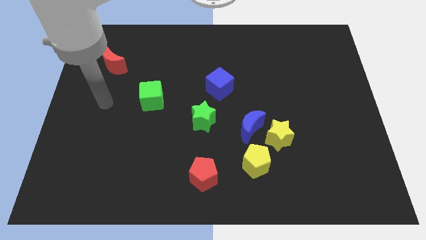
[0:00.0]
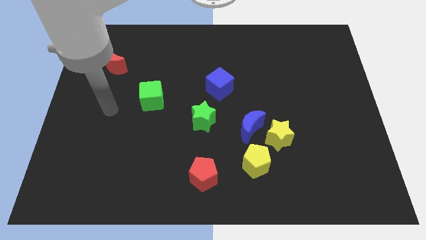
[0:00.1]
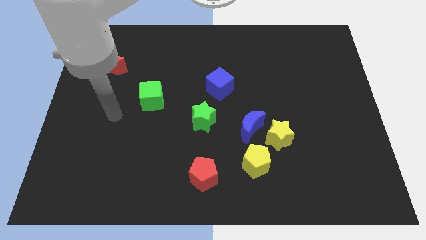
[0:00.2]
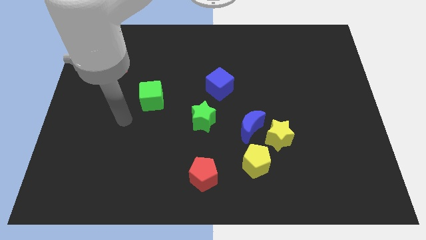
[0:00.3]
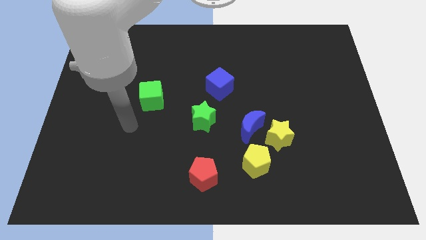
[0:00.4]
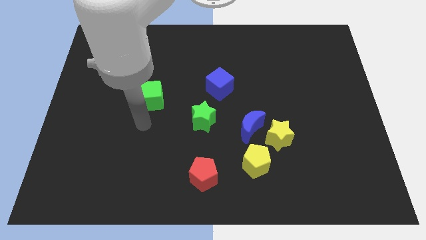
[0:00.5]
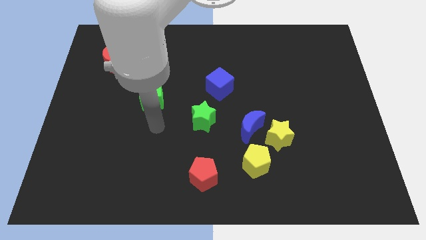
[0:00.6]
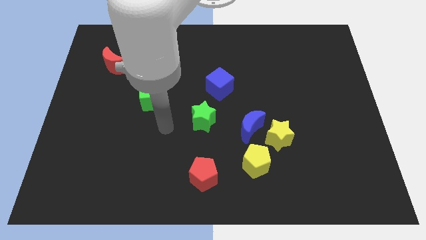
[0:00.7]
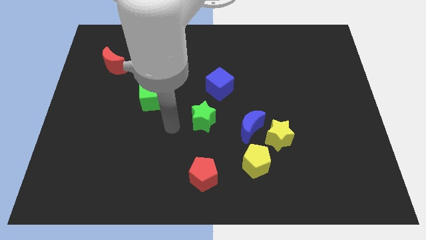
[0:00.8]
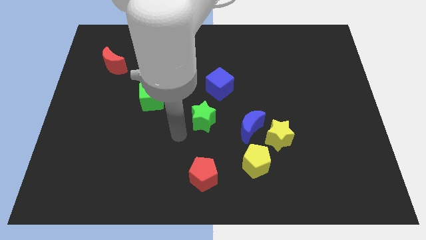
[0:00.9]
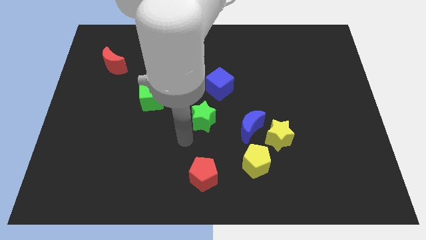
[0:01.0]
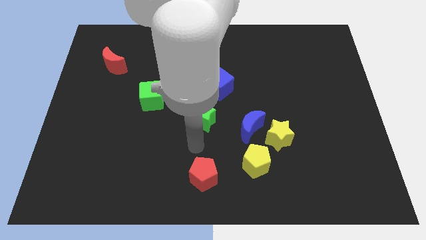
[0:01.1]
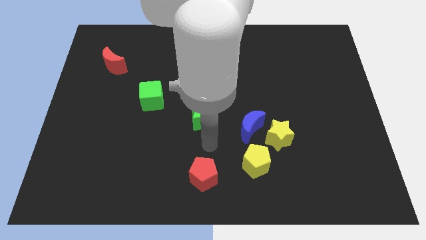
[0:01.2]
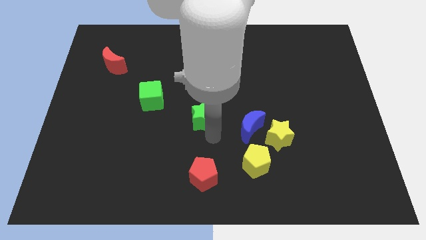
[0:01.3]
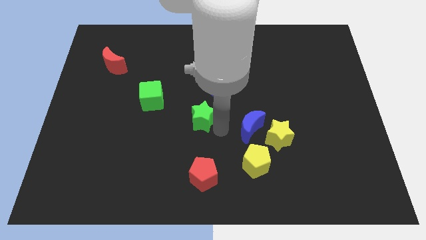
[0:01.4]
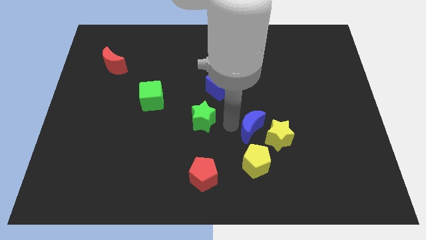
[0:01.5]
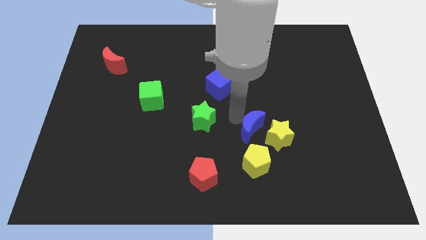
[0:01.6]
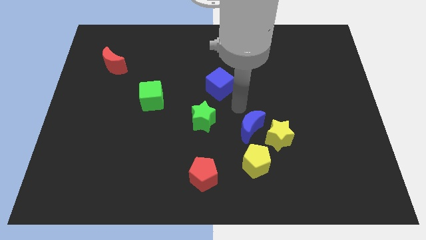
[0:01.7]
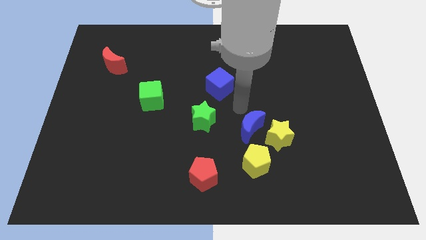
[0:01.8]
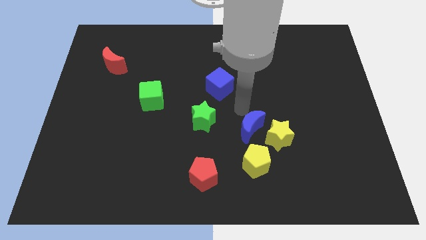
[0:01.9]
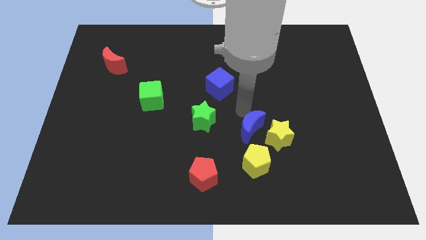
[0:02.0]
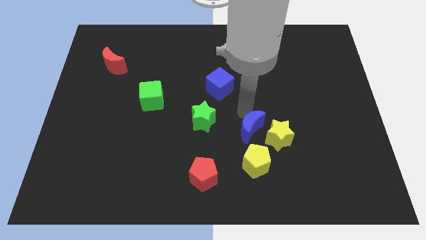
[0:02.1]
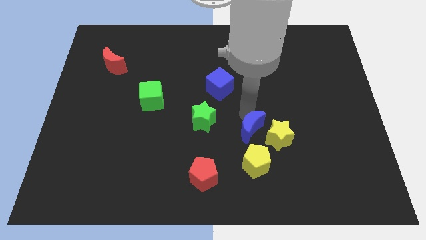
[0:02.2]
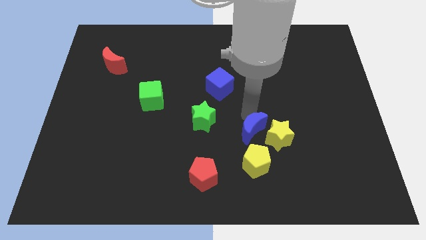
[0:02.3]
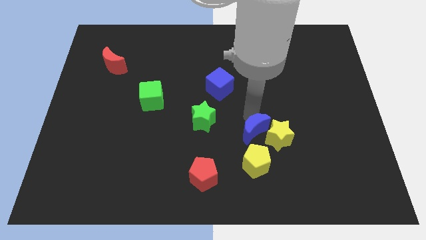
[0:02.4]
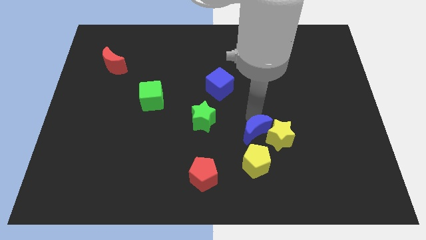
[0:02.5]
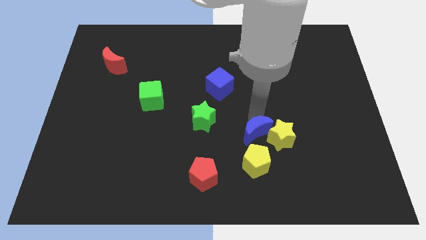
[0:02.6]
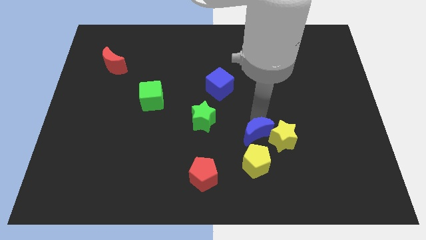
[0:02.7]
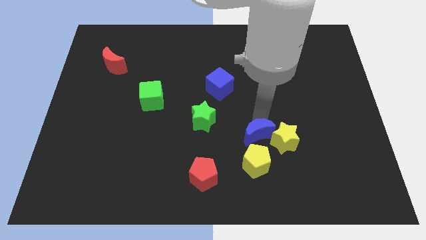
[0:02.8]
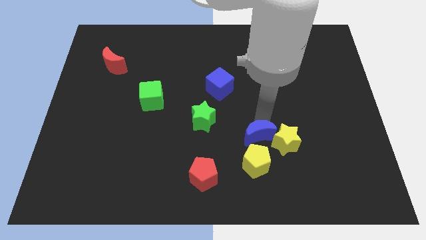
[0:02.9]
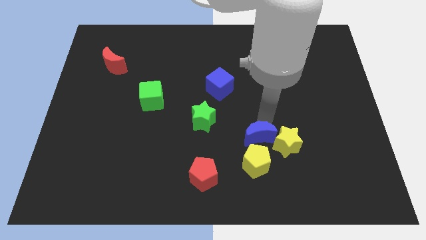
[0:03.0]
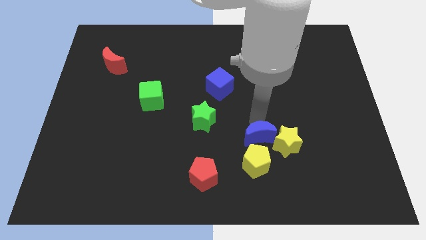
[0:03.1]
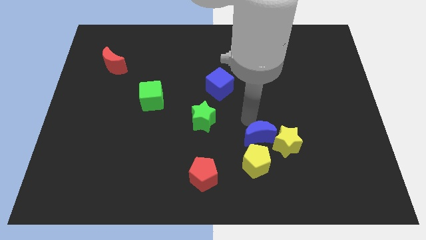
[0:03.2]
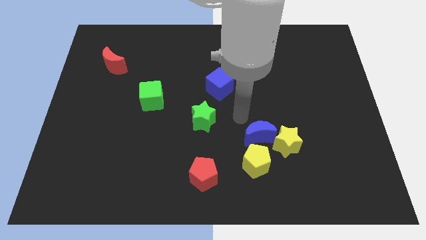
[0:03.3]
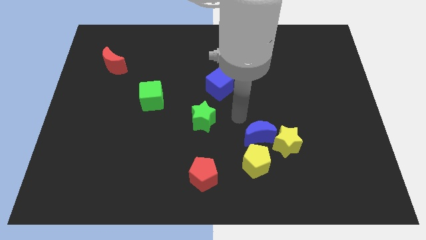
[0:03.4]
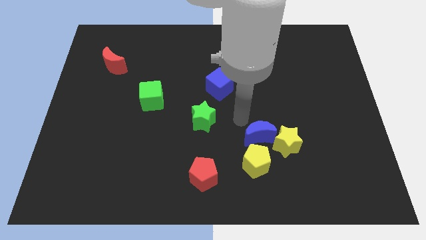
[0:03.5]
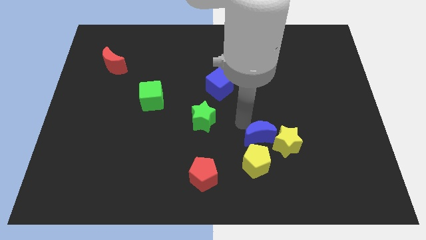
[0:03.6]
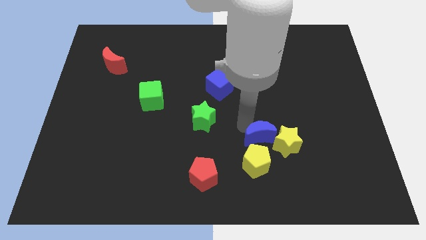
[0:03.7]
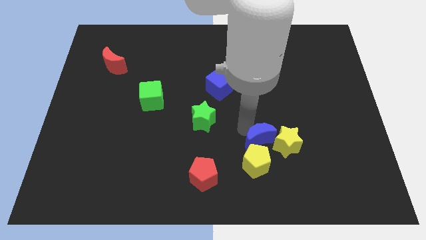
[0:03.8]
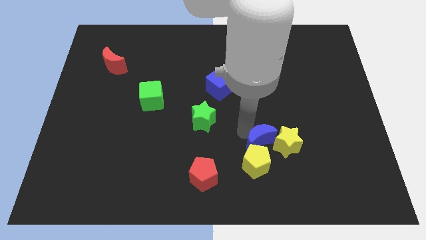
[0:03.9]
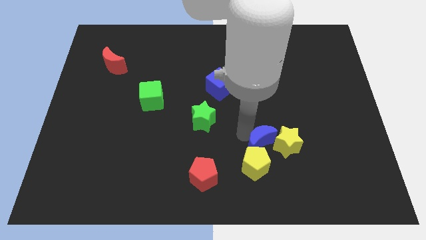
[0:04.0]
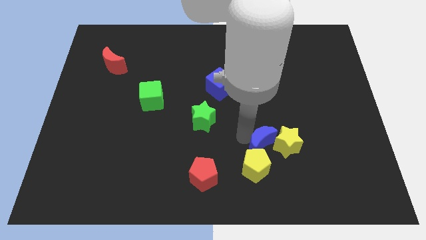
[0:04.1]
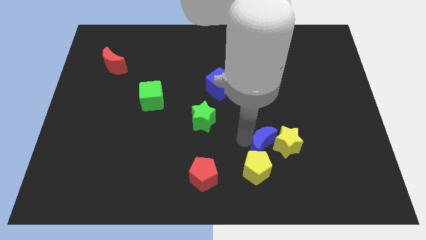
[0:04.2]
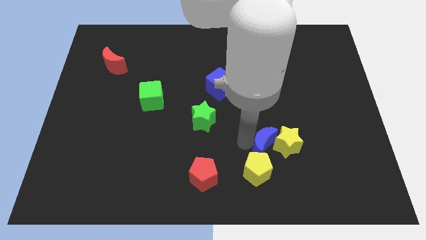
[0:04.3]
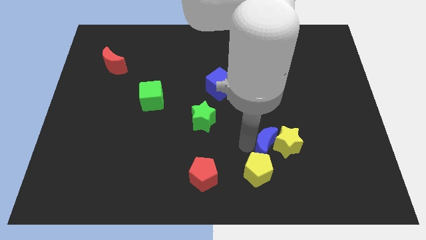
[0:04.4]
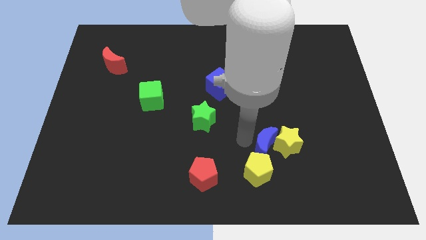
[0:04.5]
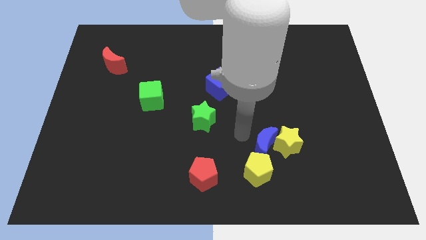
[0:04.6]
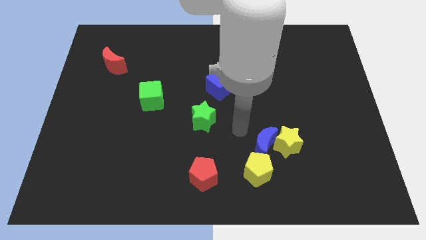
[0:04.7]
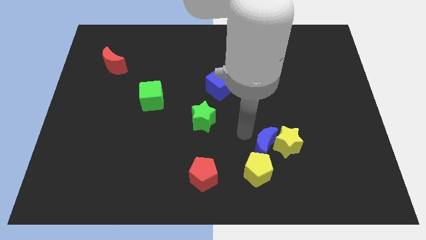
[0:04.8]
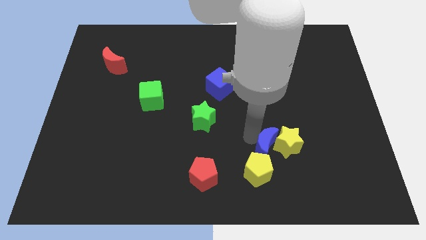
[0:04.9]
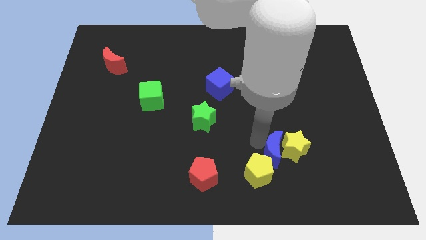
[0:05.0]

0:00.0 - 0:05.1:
slightly move the blue moon down and right

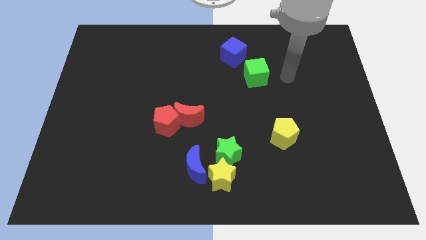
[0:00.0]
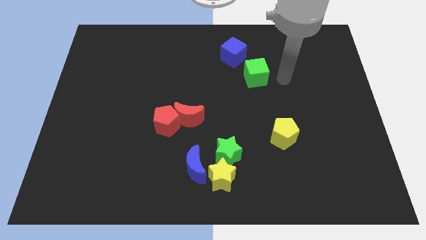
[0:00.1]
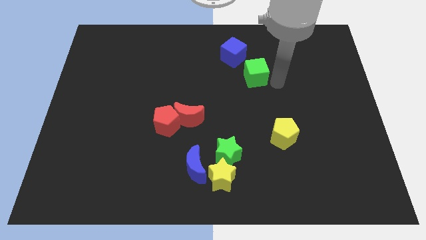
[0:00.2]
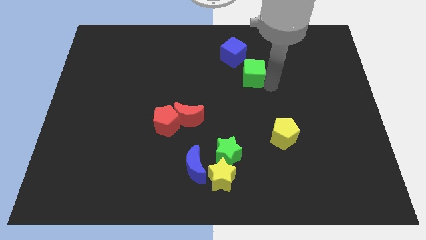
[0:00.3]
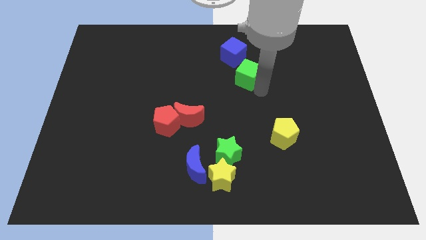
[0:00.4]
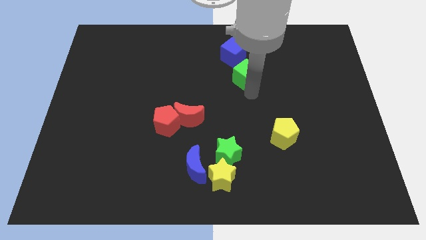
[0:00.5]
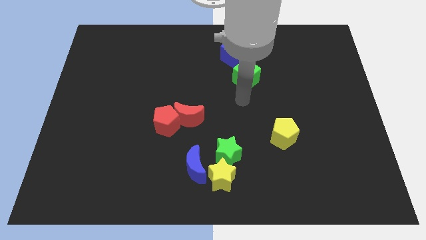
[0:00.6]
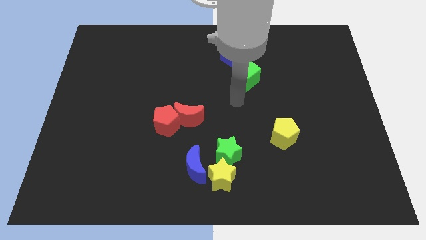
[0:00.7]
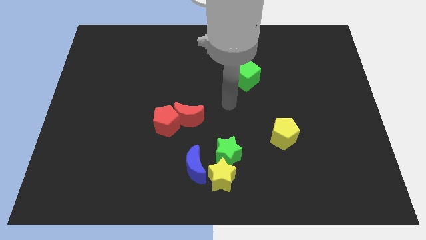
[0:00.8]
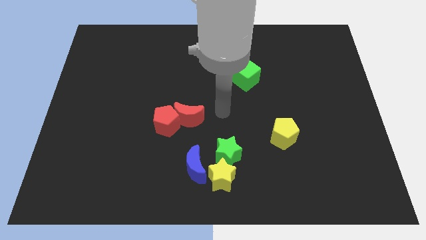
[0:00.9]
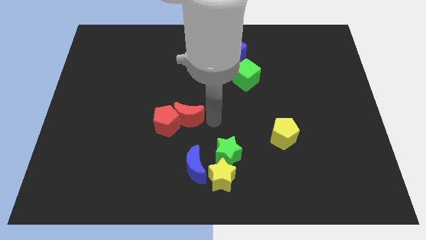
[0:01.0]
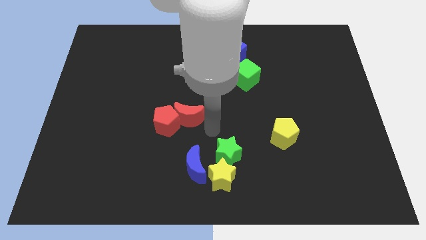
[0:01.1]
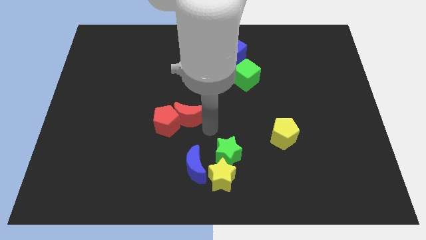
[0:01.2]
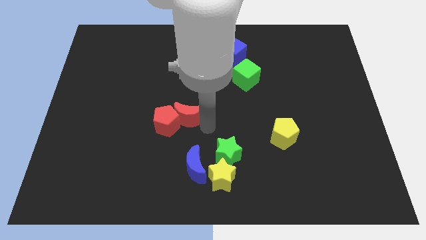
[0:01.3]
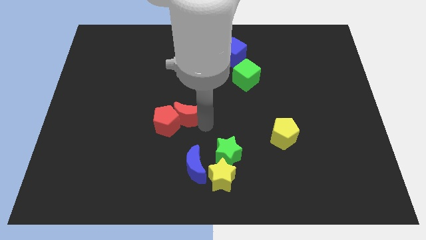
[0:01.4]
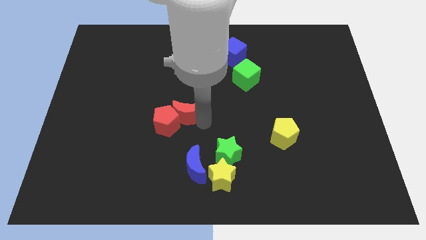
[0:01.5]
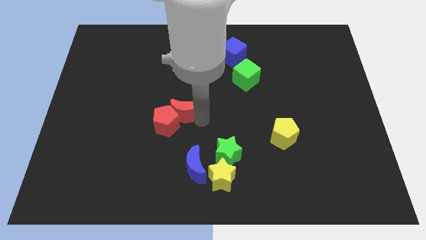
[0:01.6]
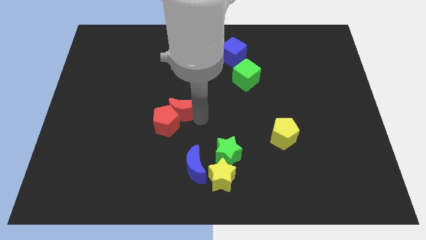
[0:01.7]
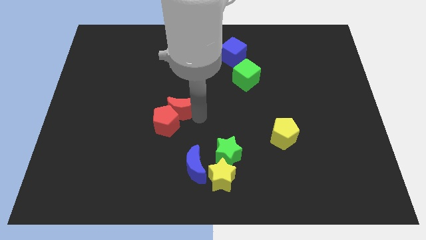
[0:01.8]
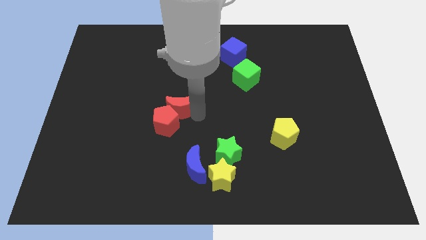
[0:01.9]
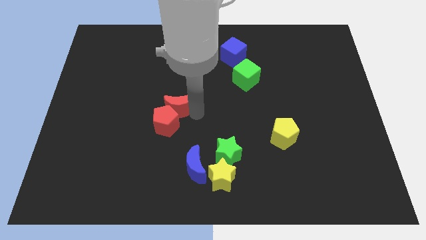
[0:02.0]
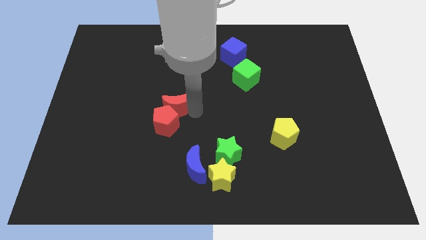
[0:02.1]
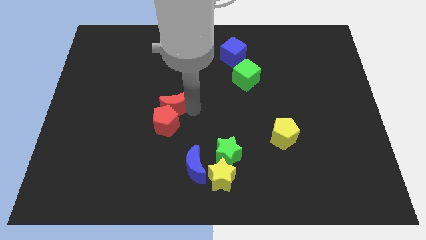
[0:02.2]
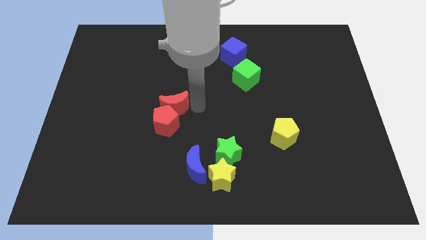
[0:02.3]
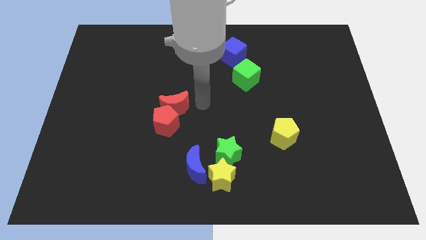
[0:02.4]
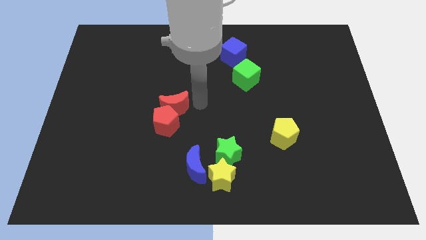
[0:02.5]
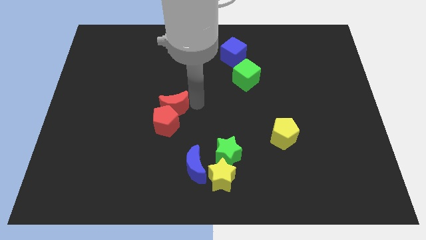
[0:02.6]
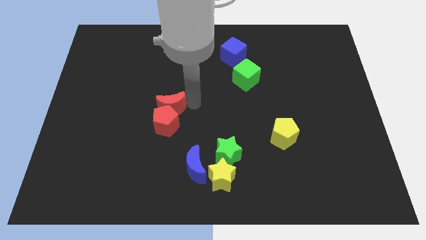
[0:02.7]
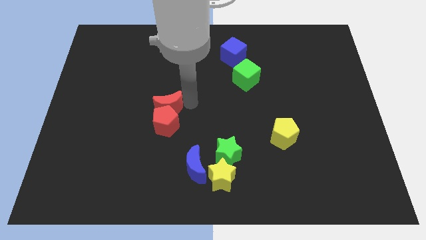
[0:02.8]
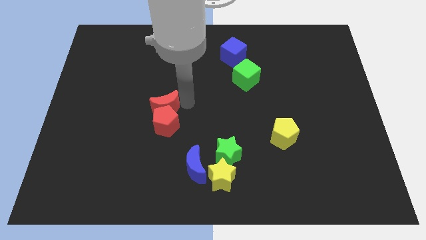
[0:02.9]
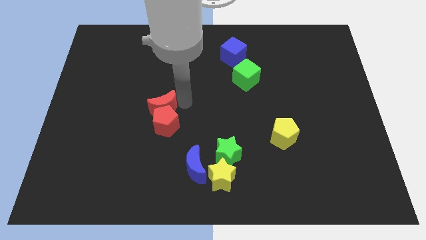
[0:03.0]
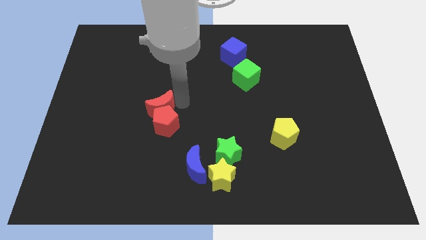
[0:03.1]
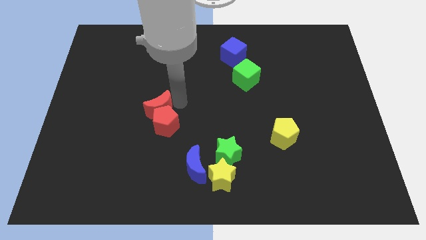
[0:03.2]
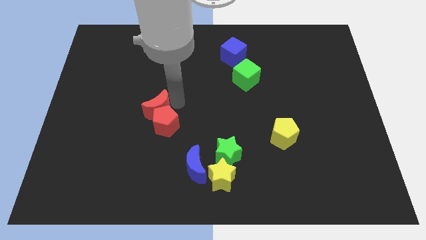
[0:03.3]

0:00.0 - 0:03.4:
push the red moon to the left a bit
